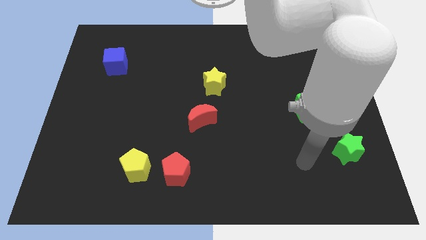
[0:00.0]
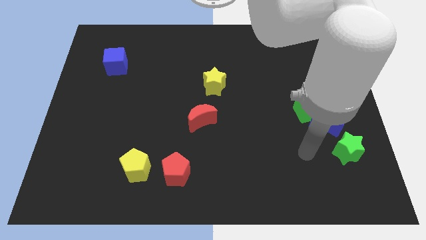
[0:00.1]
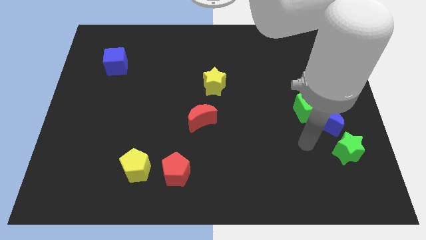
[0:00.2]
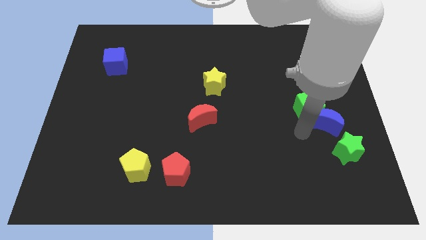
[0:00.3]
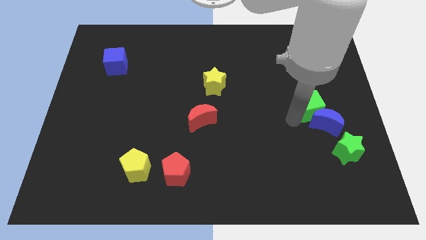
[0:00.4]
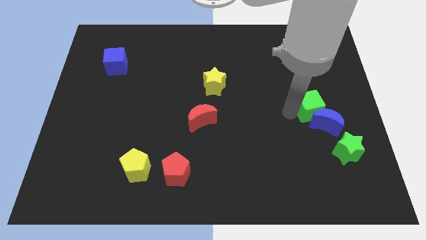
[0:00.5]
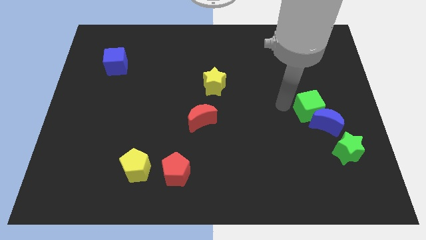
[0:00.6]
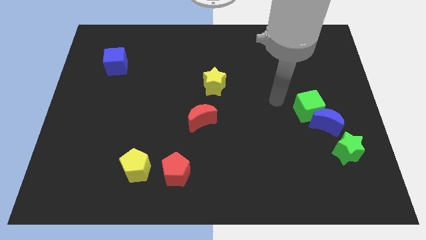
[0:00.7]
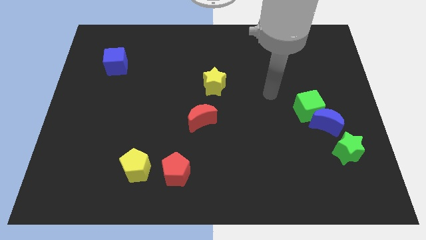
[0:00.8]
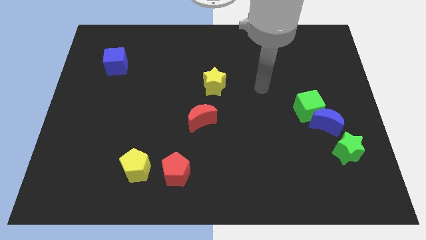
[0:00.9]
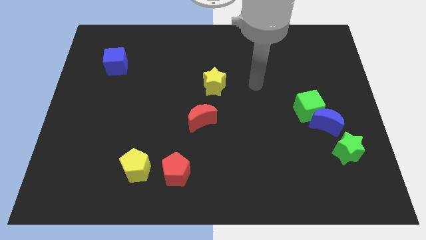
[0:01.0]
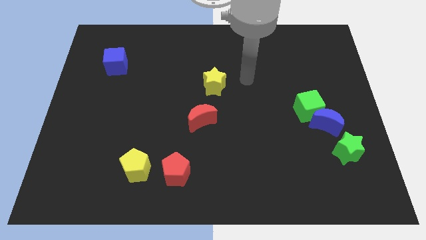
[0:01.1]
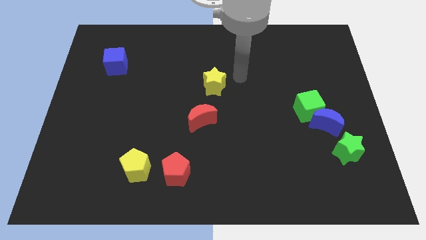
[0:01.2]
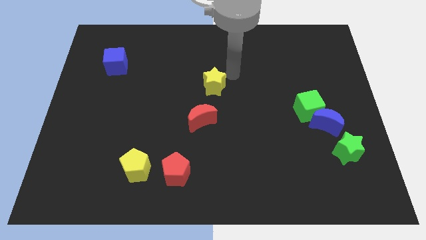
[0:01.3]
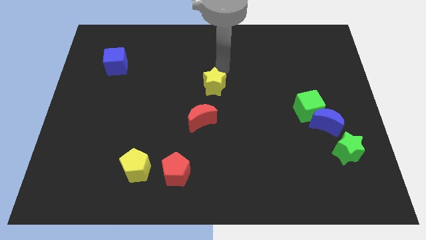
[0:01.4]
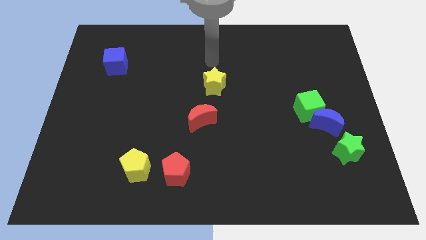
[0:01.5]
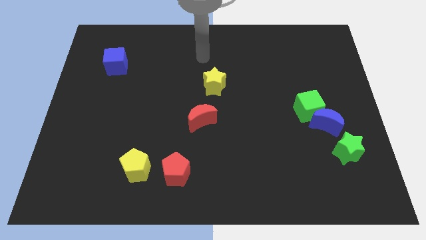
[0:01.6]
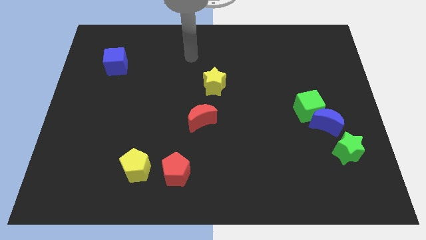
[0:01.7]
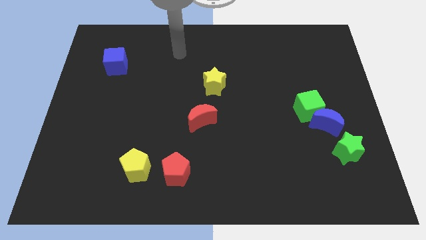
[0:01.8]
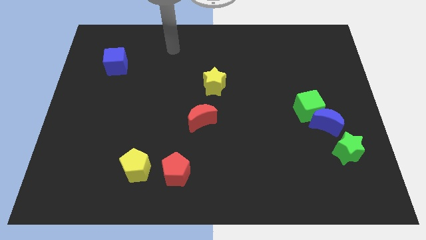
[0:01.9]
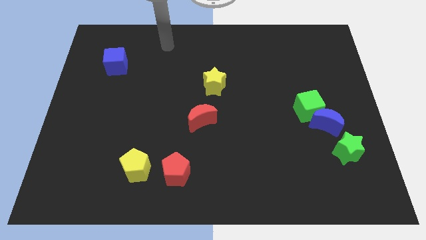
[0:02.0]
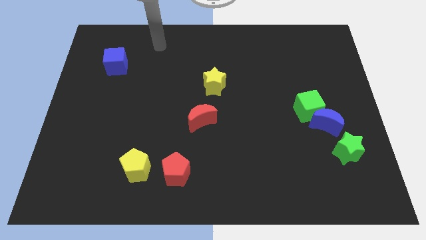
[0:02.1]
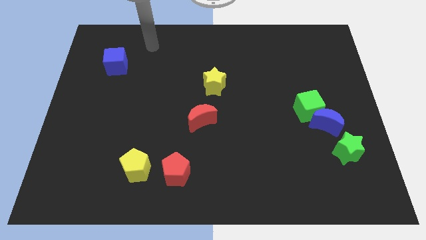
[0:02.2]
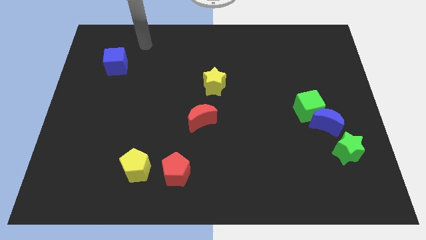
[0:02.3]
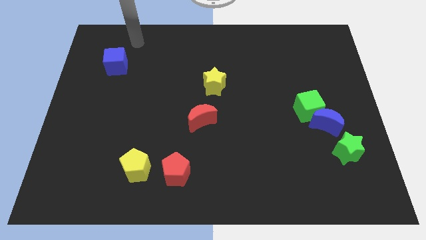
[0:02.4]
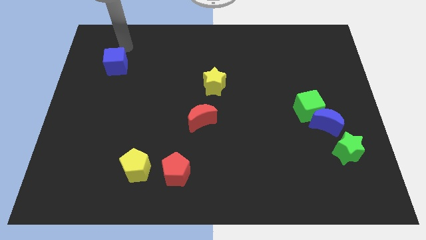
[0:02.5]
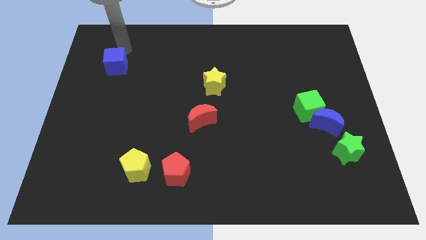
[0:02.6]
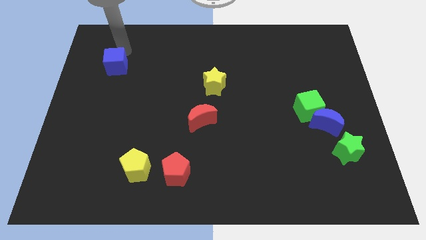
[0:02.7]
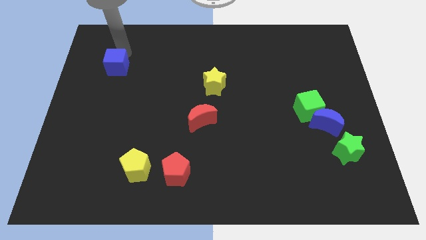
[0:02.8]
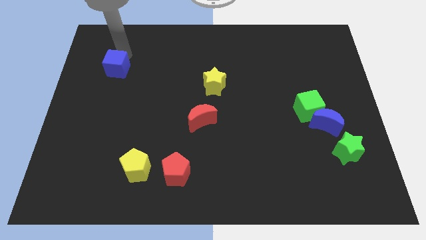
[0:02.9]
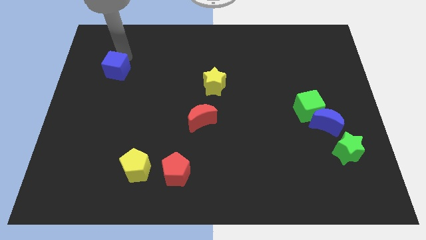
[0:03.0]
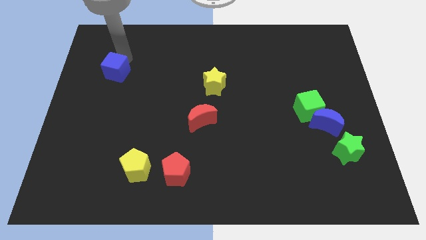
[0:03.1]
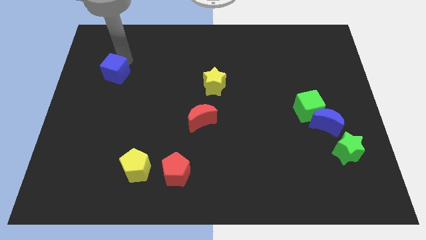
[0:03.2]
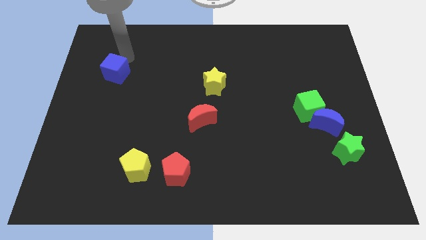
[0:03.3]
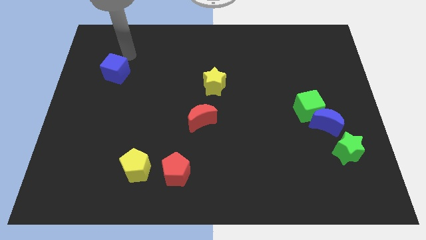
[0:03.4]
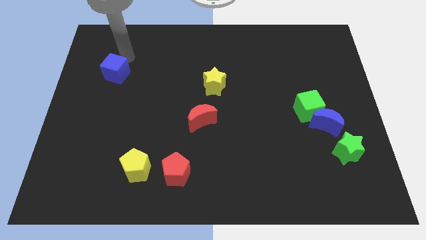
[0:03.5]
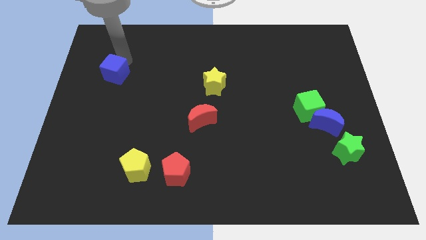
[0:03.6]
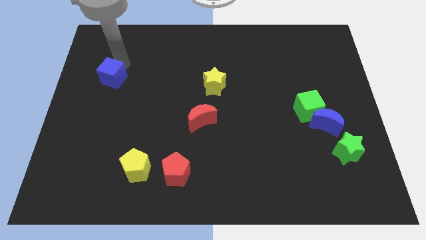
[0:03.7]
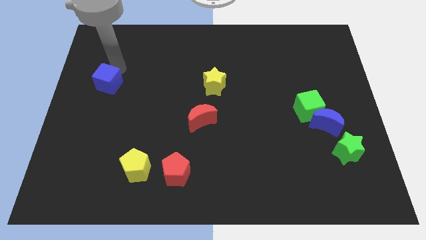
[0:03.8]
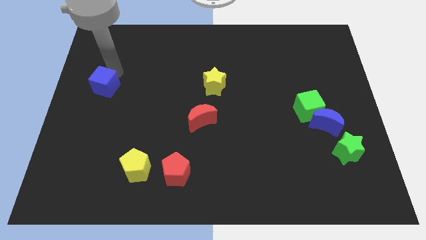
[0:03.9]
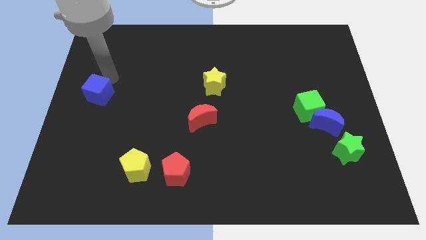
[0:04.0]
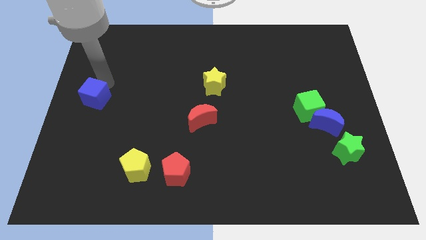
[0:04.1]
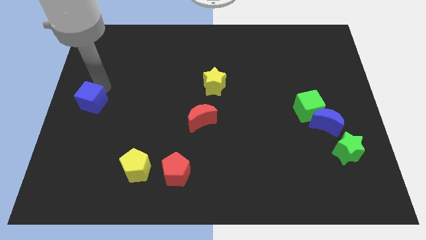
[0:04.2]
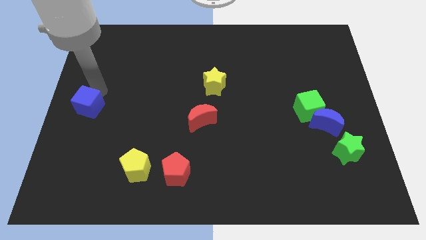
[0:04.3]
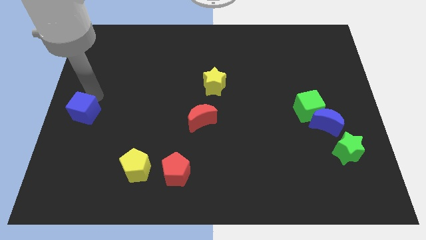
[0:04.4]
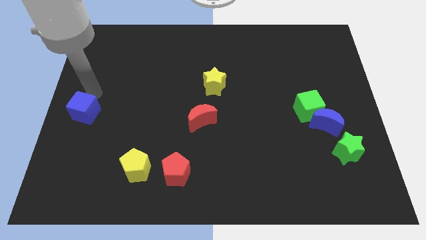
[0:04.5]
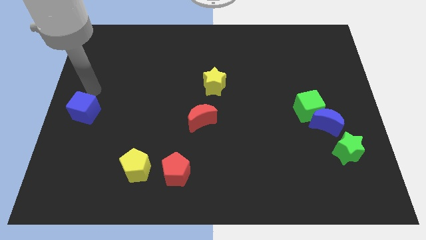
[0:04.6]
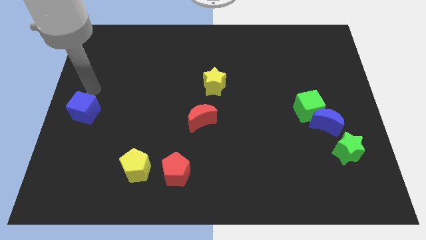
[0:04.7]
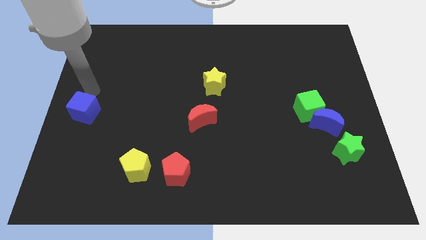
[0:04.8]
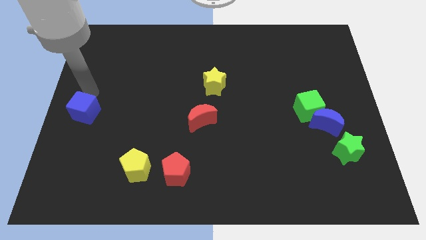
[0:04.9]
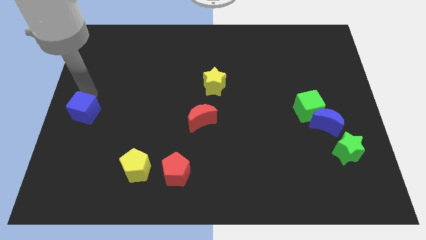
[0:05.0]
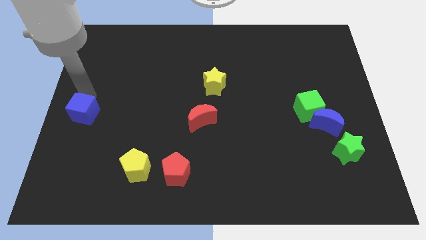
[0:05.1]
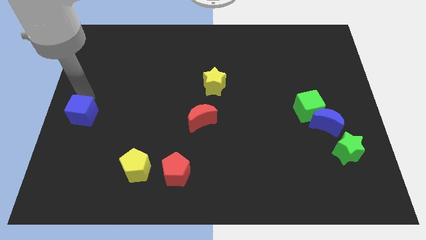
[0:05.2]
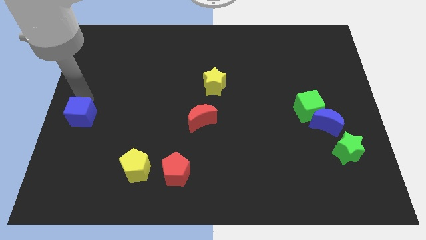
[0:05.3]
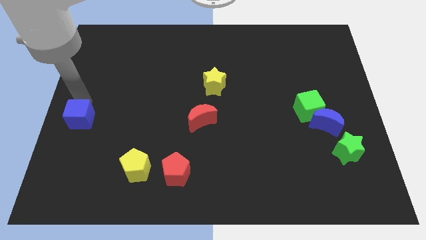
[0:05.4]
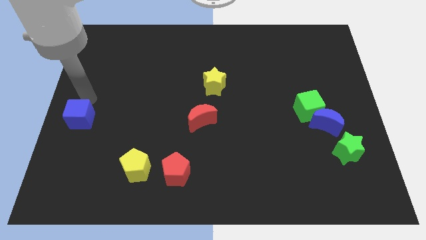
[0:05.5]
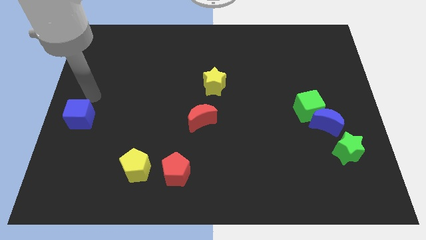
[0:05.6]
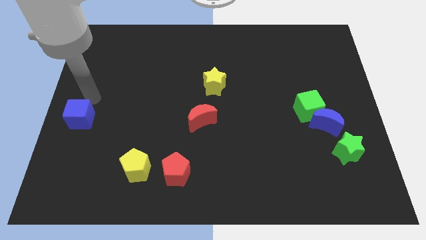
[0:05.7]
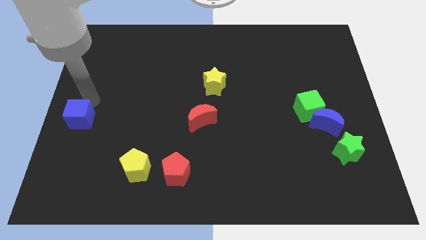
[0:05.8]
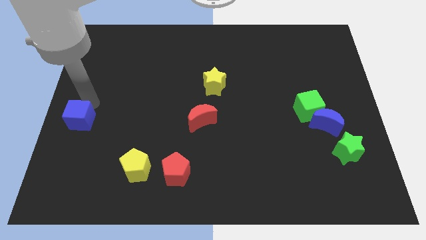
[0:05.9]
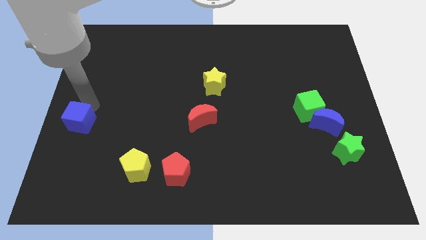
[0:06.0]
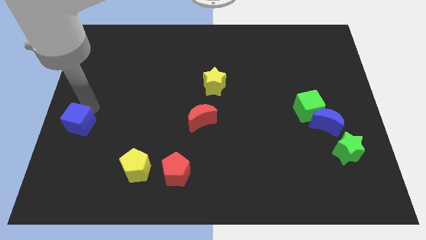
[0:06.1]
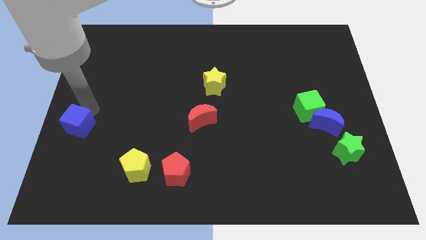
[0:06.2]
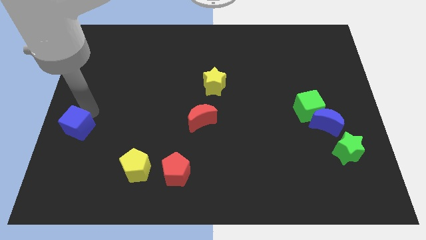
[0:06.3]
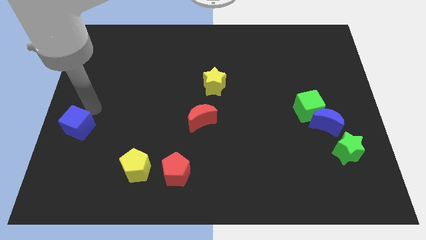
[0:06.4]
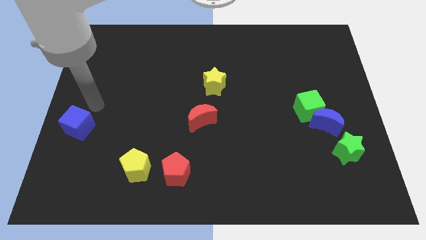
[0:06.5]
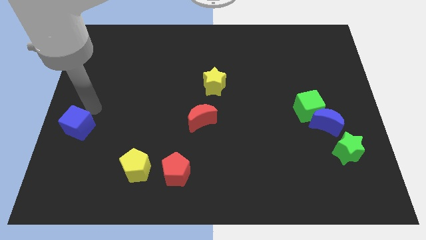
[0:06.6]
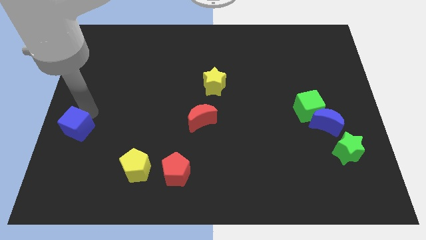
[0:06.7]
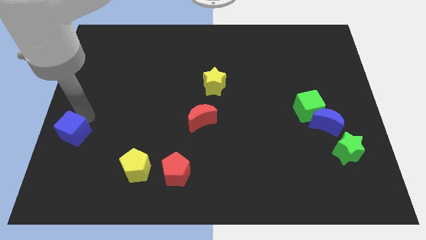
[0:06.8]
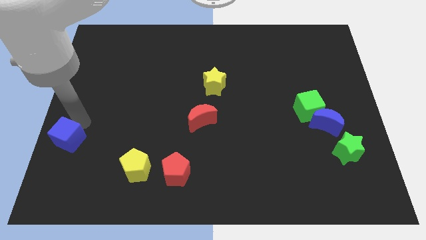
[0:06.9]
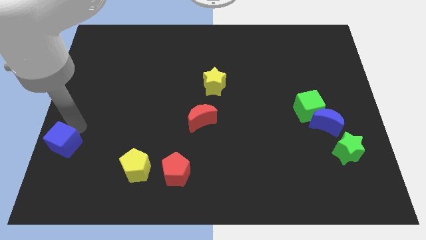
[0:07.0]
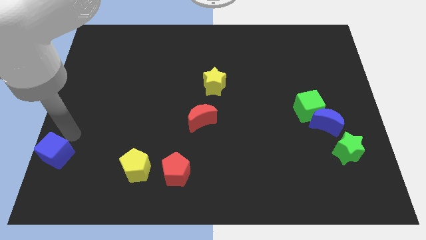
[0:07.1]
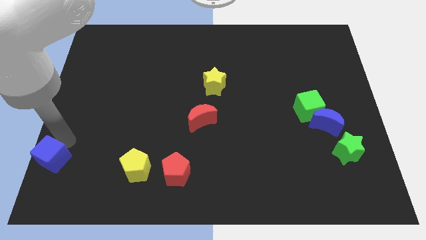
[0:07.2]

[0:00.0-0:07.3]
push the blue cube to the bottom left

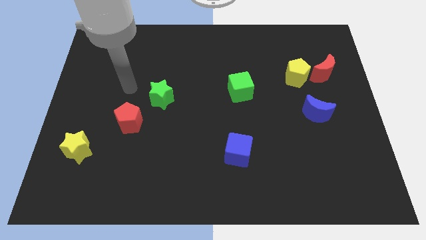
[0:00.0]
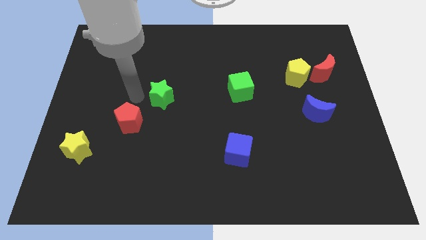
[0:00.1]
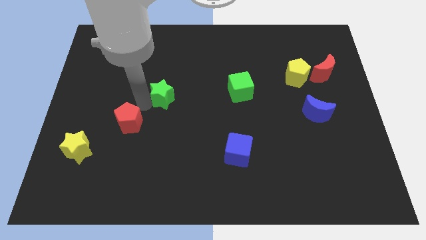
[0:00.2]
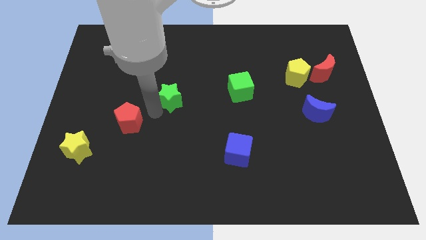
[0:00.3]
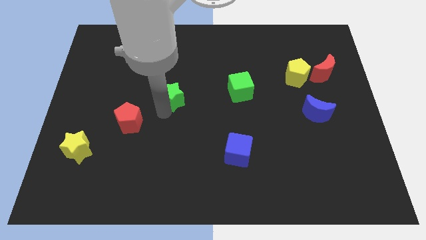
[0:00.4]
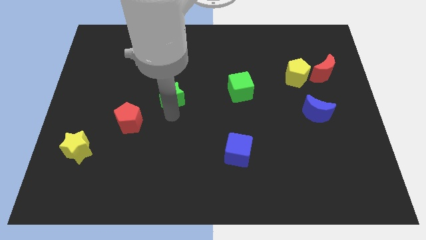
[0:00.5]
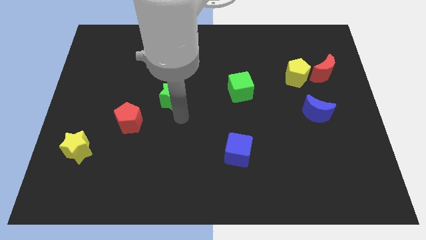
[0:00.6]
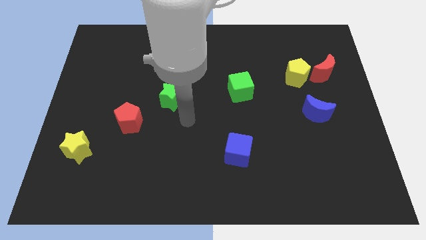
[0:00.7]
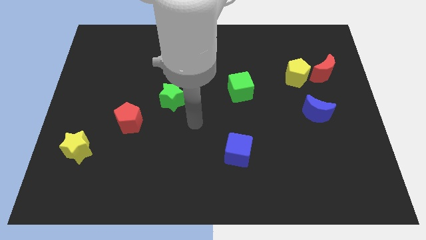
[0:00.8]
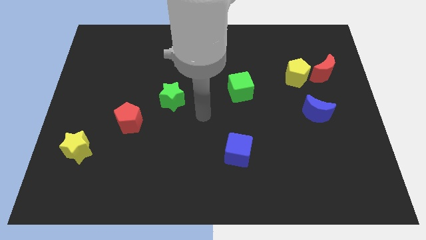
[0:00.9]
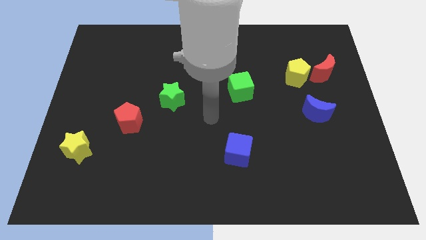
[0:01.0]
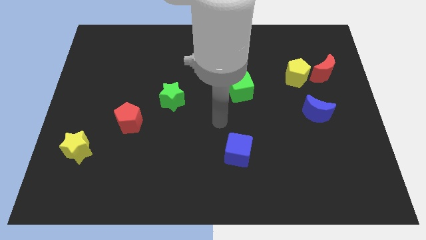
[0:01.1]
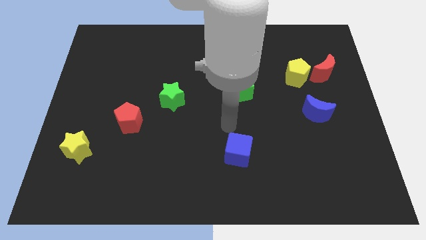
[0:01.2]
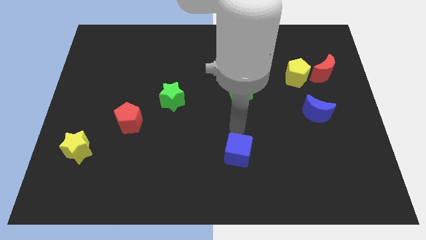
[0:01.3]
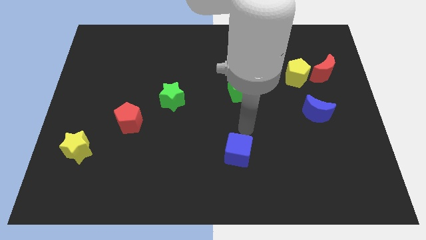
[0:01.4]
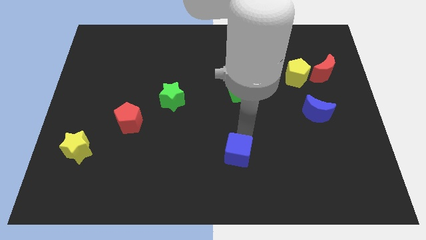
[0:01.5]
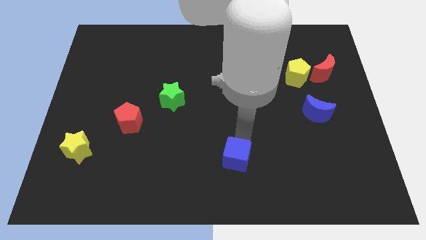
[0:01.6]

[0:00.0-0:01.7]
move the blue cube to the bottom
